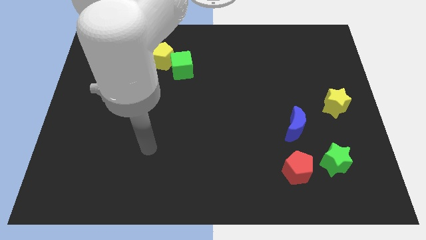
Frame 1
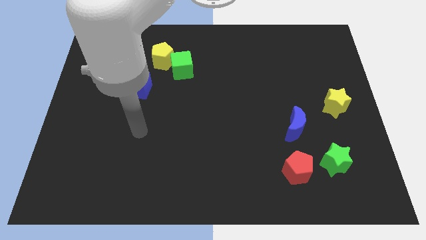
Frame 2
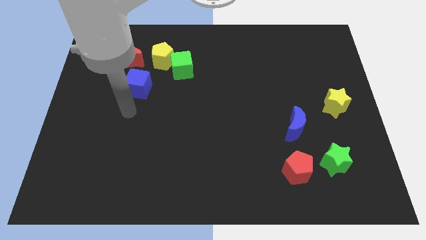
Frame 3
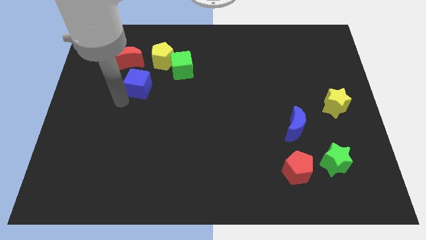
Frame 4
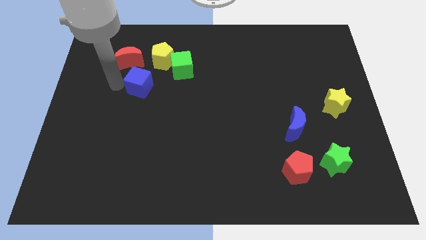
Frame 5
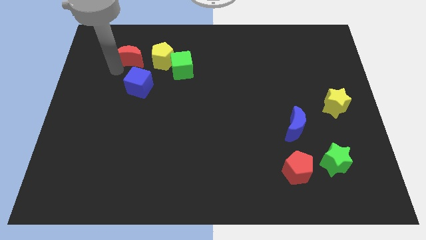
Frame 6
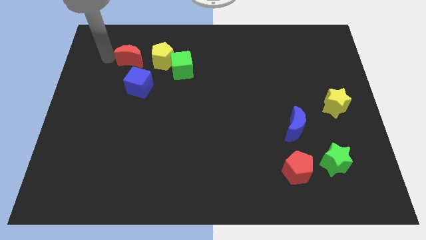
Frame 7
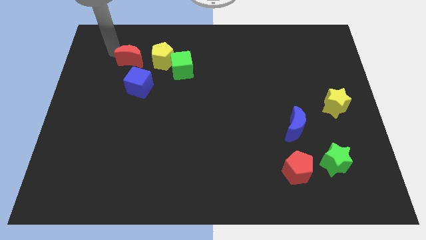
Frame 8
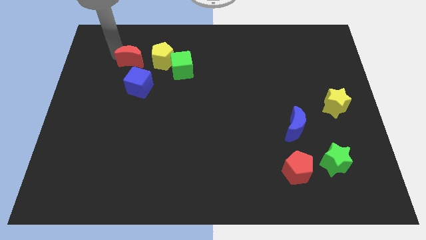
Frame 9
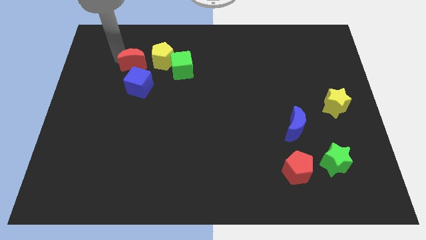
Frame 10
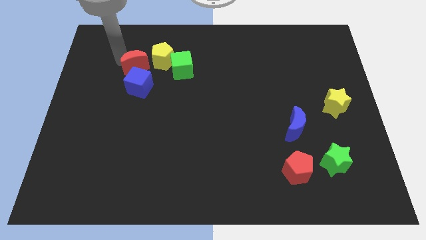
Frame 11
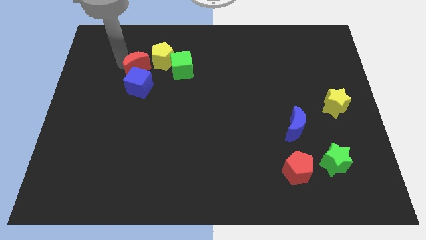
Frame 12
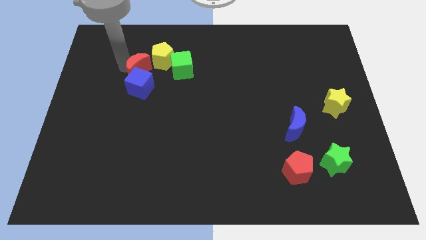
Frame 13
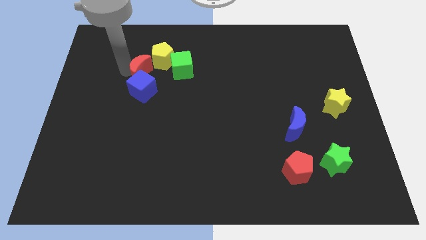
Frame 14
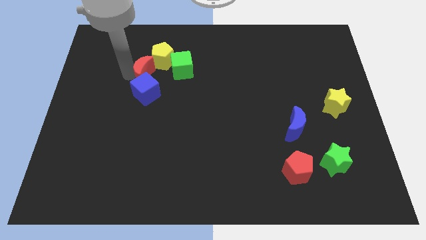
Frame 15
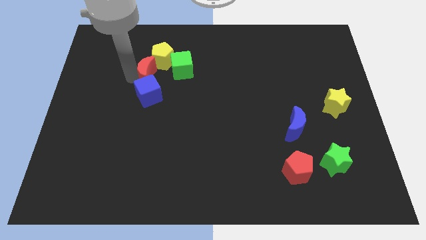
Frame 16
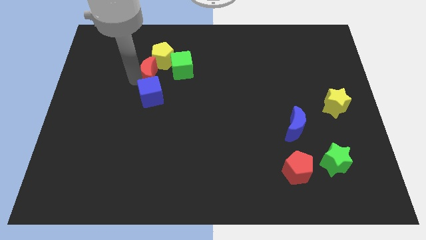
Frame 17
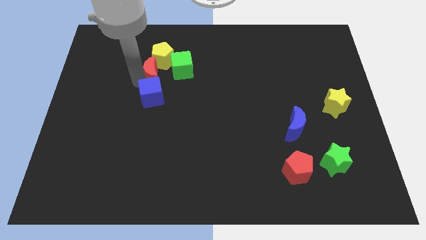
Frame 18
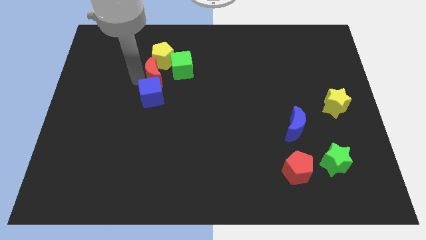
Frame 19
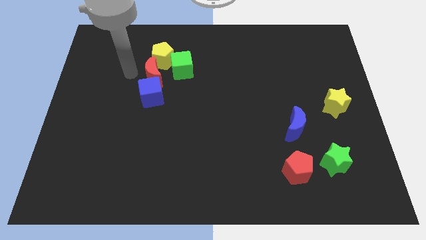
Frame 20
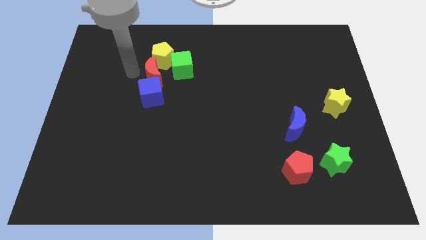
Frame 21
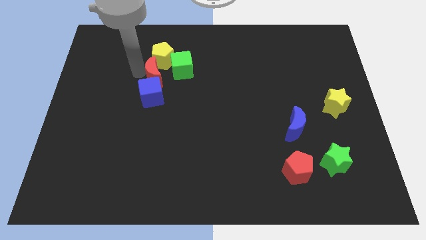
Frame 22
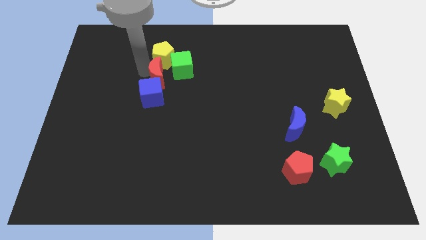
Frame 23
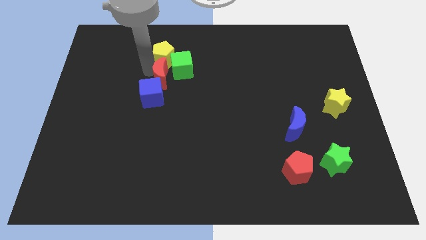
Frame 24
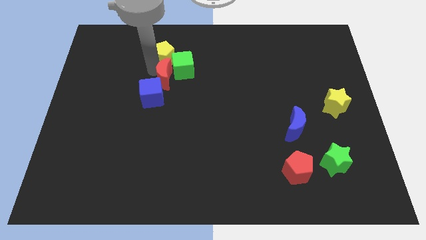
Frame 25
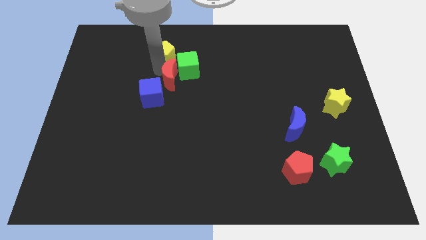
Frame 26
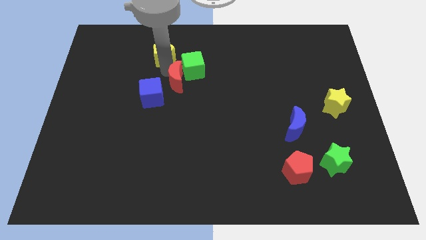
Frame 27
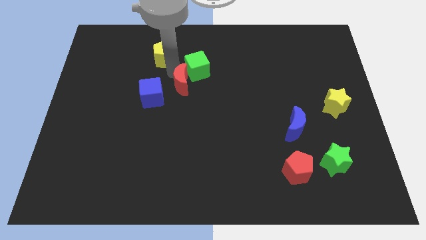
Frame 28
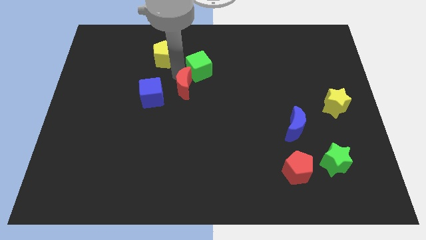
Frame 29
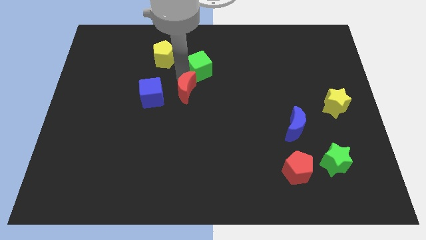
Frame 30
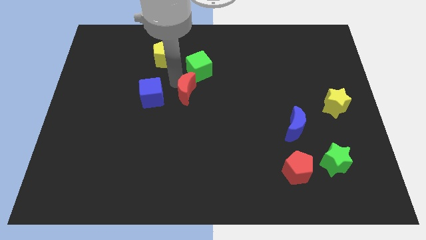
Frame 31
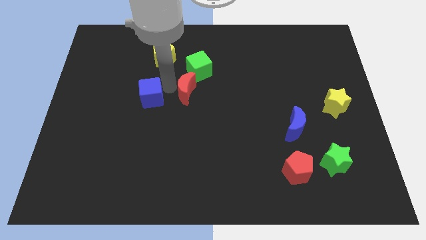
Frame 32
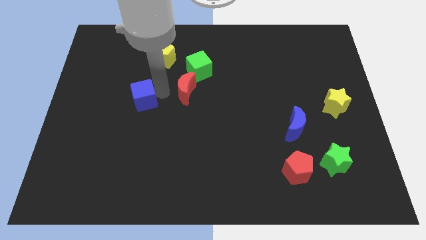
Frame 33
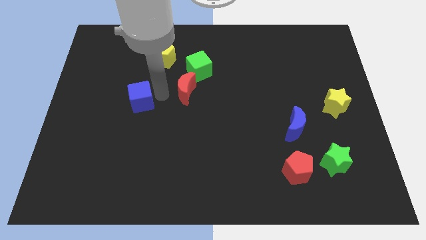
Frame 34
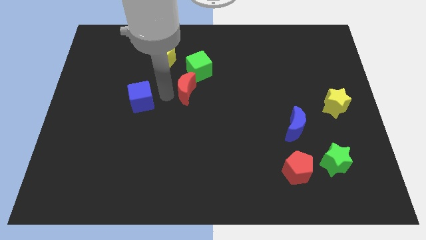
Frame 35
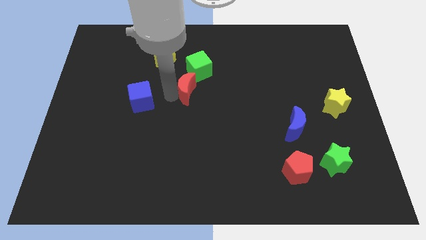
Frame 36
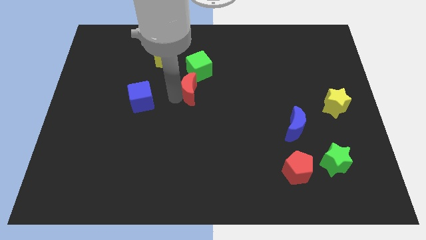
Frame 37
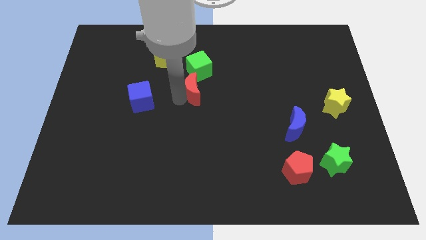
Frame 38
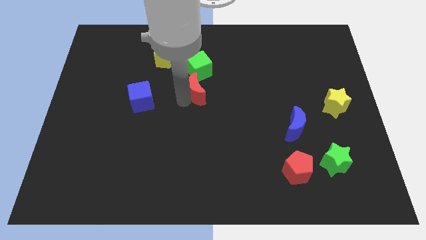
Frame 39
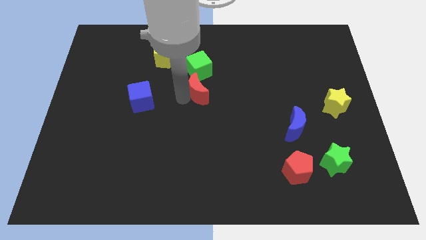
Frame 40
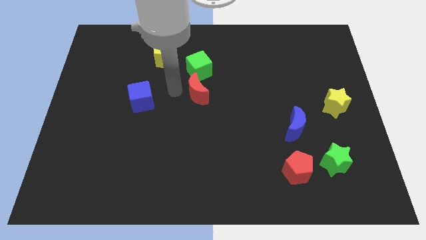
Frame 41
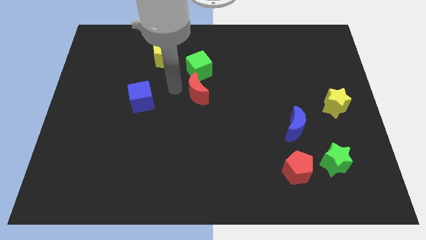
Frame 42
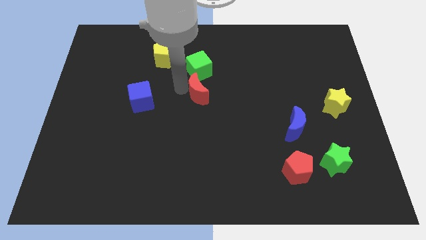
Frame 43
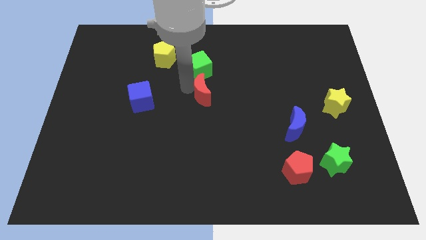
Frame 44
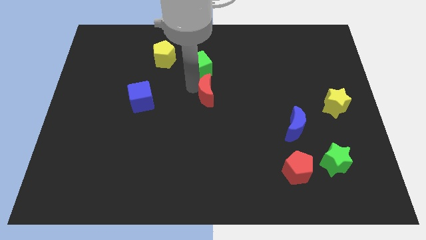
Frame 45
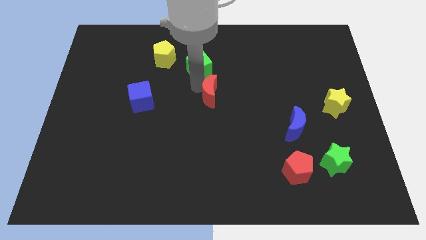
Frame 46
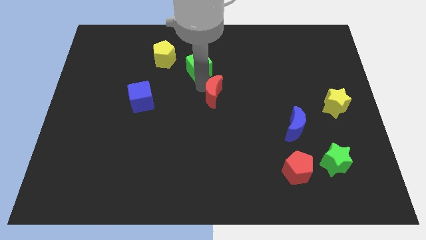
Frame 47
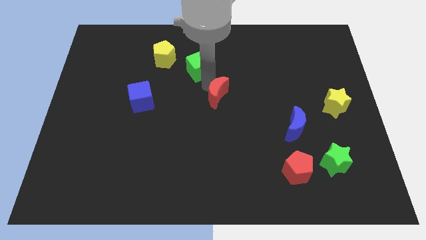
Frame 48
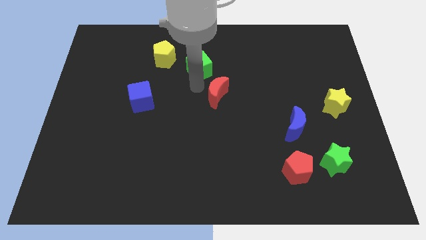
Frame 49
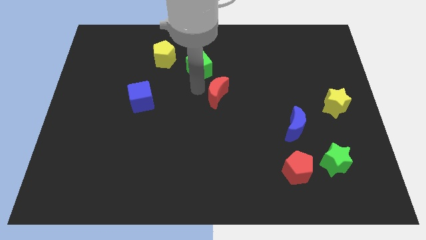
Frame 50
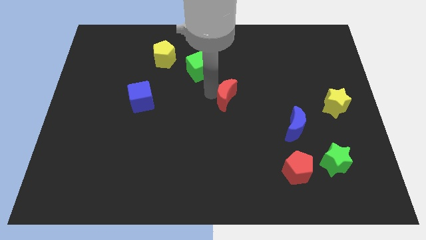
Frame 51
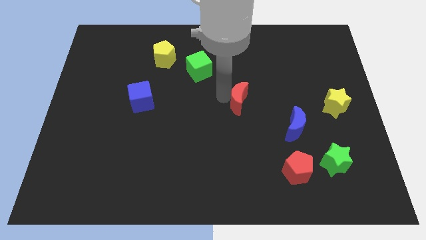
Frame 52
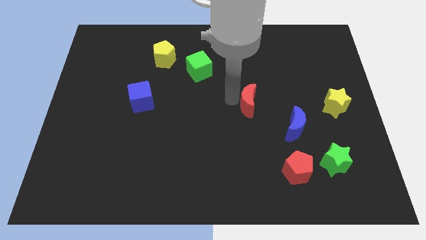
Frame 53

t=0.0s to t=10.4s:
slide the red moon diagonally up and to the left of the blue moon

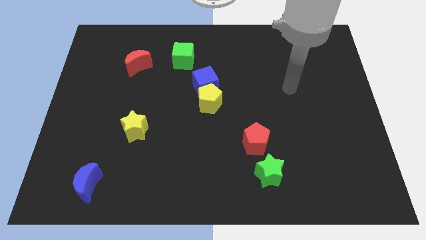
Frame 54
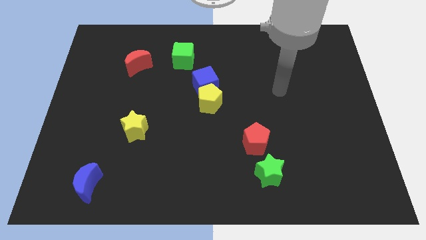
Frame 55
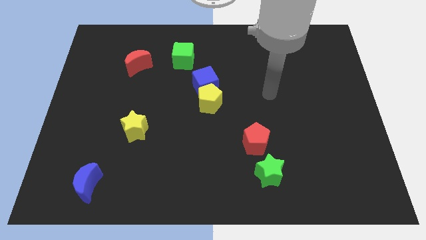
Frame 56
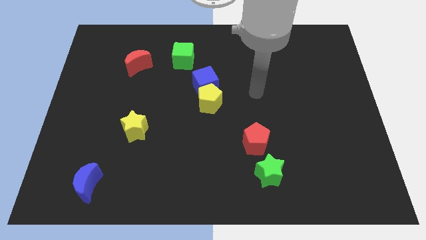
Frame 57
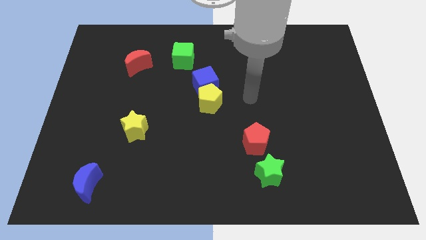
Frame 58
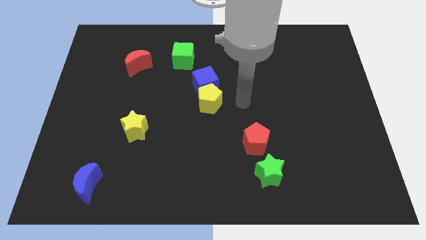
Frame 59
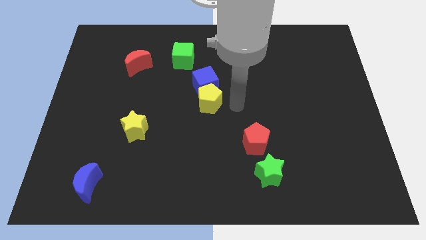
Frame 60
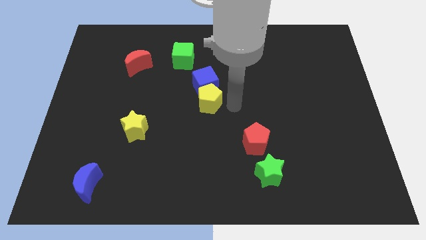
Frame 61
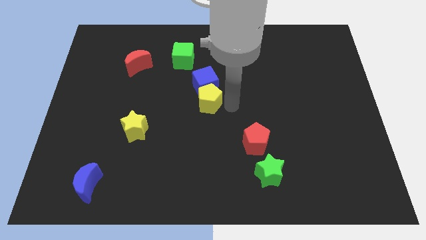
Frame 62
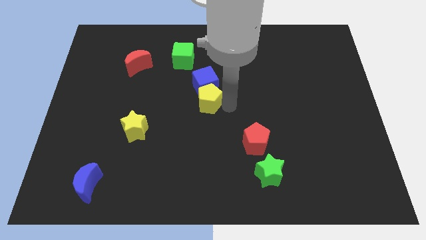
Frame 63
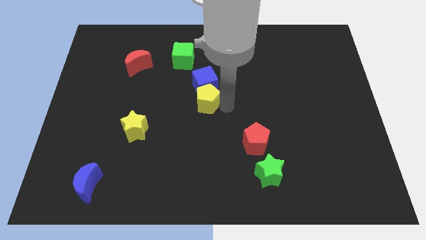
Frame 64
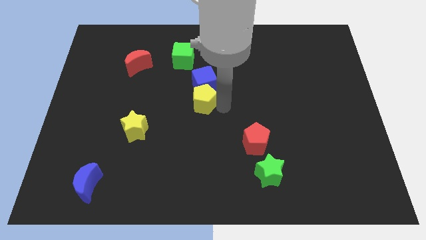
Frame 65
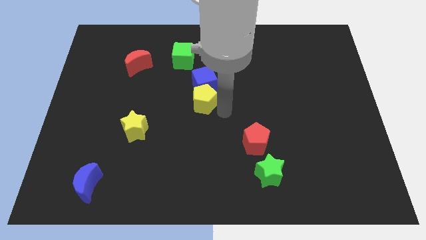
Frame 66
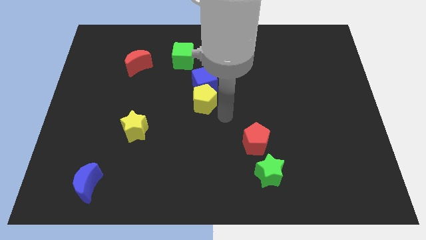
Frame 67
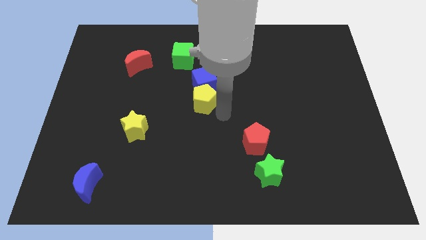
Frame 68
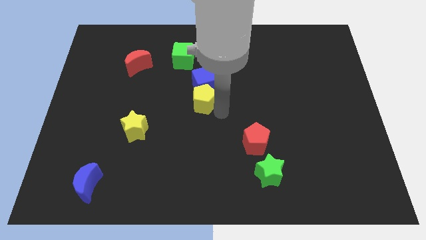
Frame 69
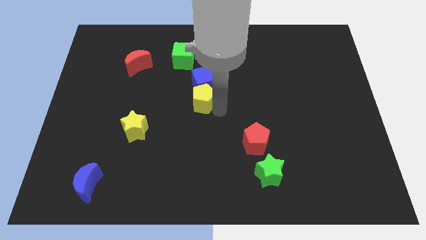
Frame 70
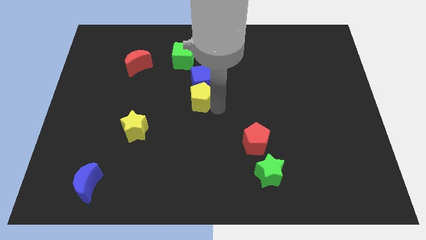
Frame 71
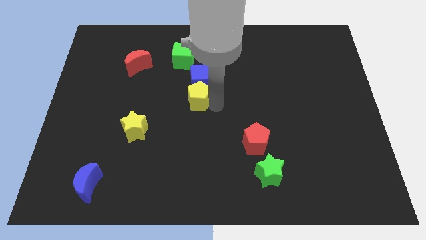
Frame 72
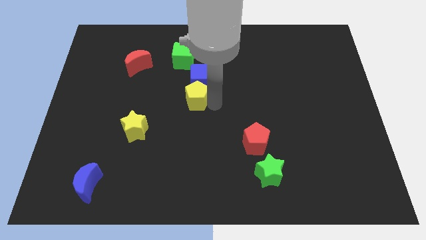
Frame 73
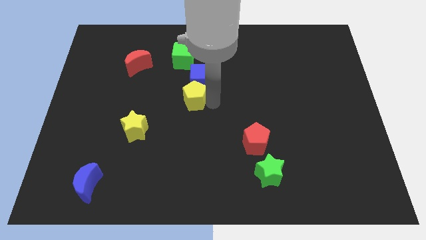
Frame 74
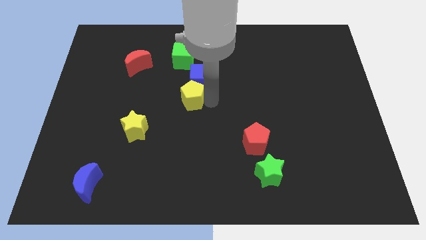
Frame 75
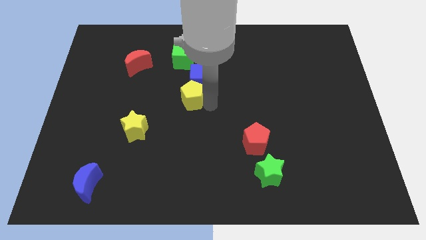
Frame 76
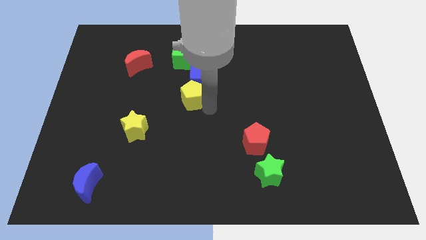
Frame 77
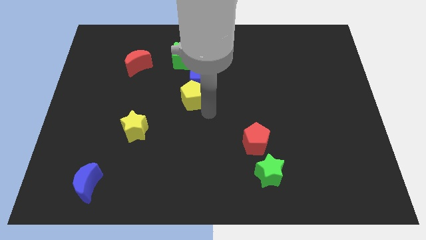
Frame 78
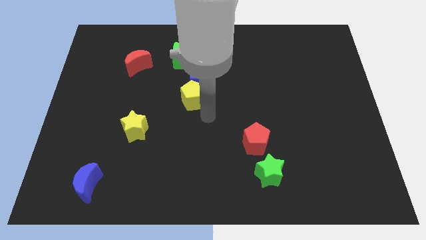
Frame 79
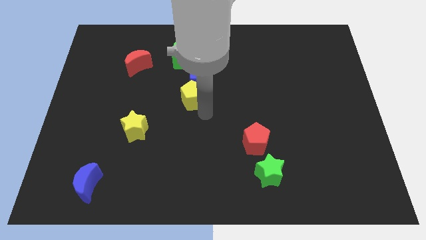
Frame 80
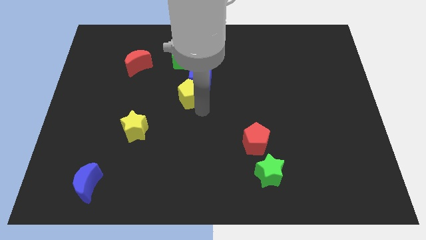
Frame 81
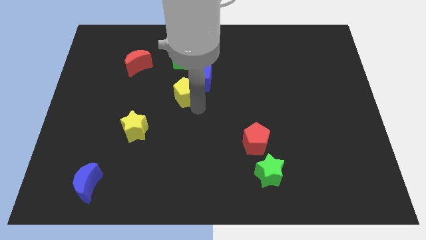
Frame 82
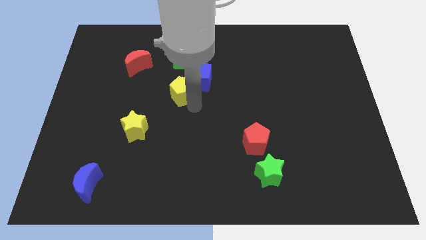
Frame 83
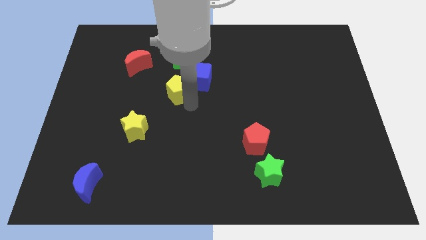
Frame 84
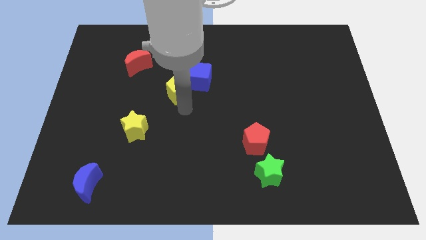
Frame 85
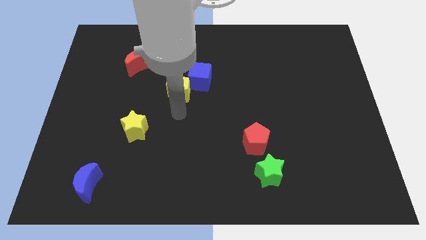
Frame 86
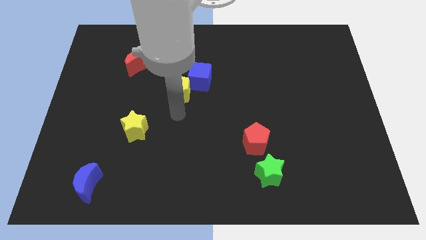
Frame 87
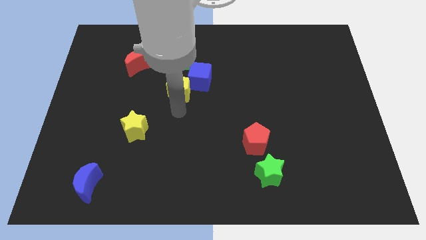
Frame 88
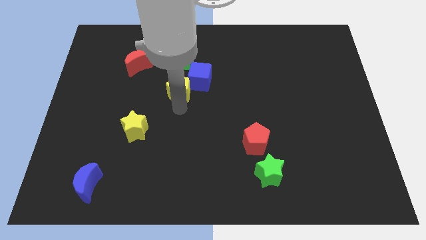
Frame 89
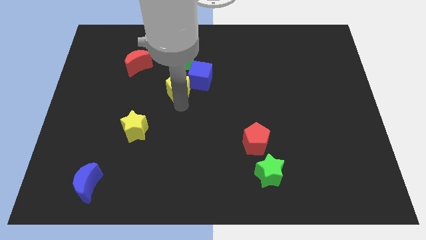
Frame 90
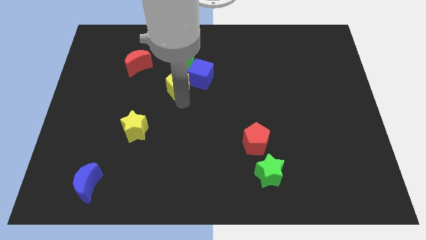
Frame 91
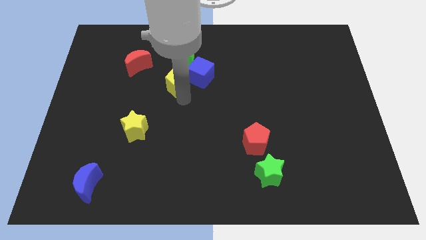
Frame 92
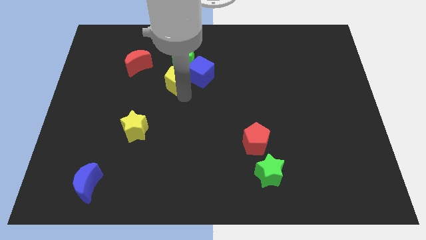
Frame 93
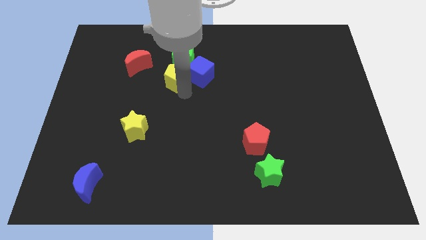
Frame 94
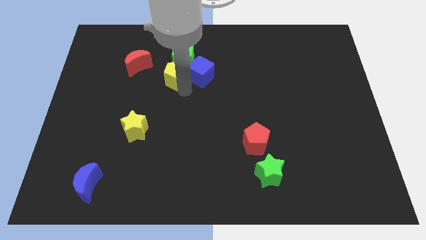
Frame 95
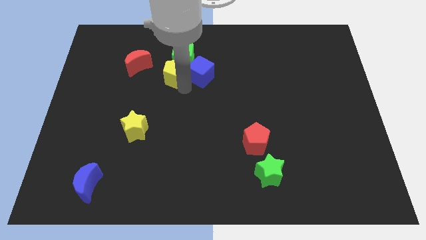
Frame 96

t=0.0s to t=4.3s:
push the yellow pentagon diagonally up and to the left of the blue cube
